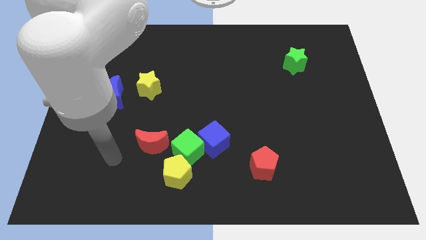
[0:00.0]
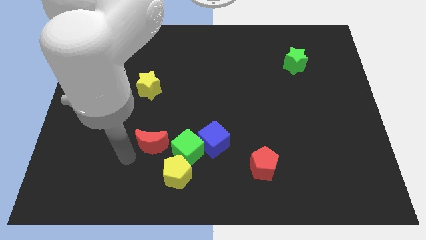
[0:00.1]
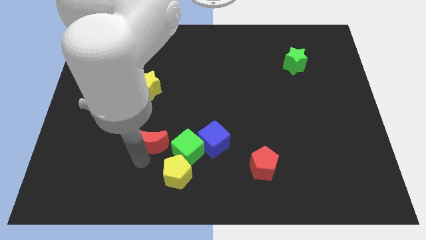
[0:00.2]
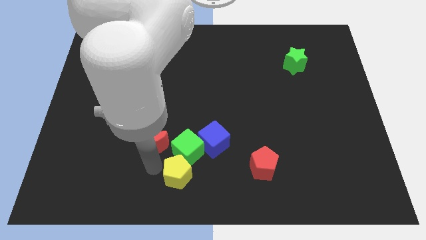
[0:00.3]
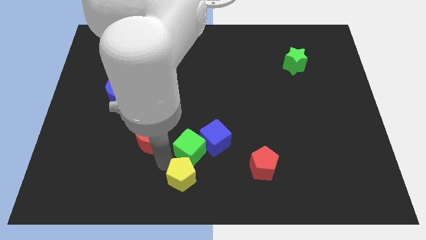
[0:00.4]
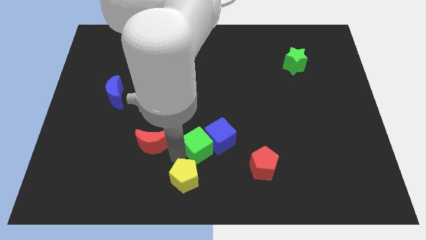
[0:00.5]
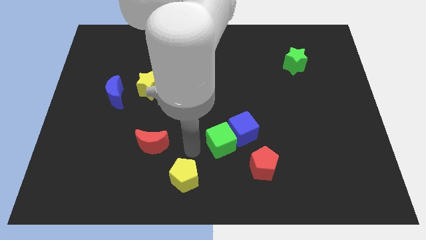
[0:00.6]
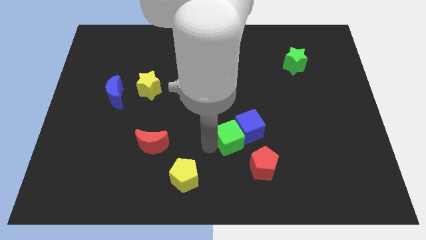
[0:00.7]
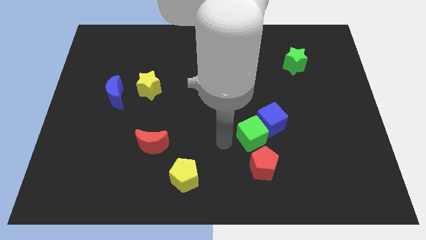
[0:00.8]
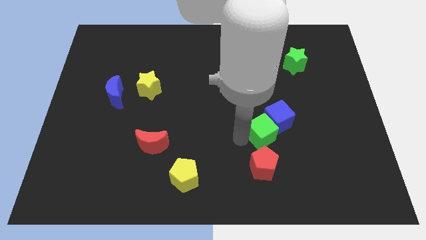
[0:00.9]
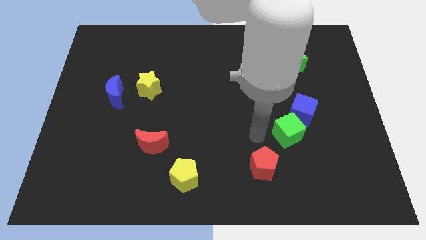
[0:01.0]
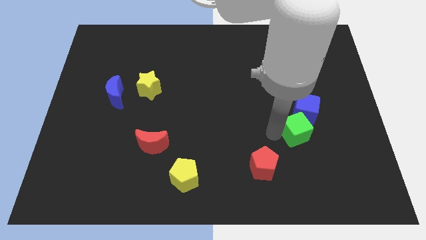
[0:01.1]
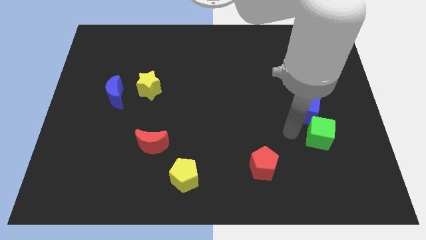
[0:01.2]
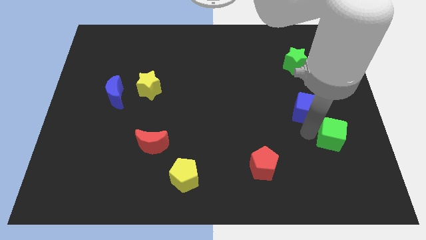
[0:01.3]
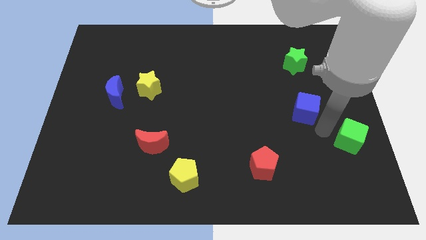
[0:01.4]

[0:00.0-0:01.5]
pull the blue cube apart from the green cube

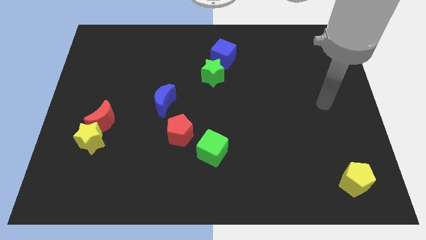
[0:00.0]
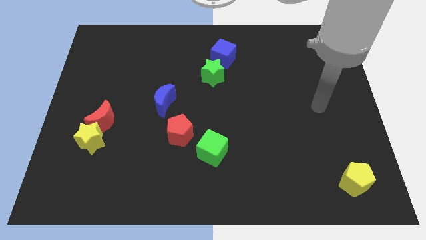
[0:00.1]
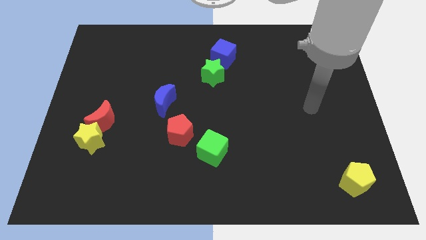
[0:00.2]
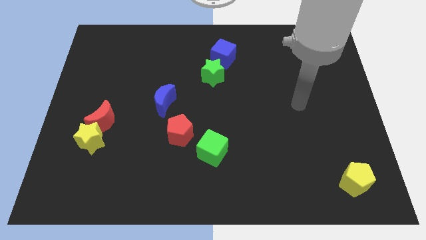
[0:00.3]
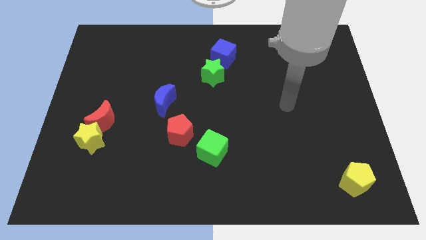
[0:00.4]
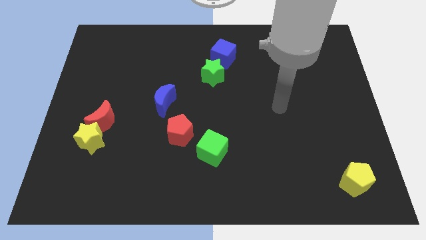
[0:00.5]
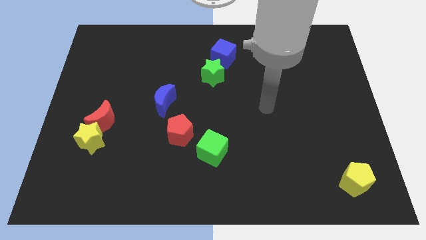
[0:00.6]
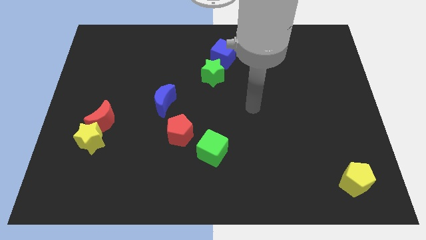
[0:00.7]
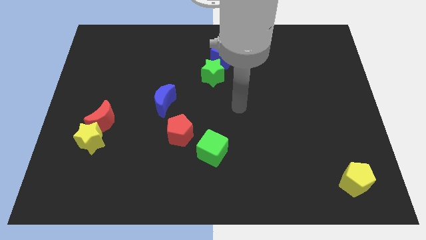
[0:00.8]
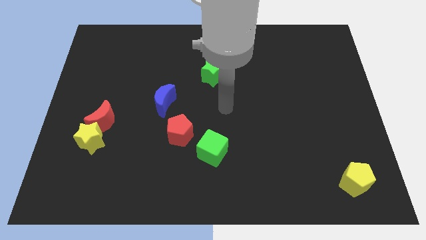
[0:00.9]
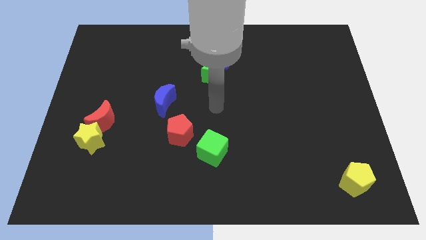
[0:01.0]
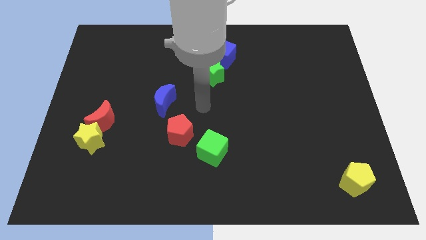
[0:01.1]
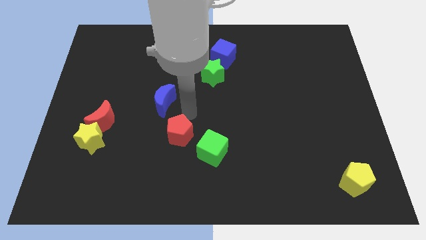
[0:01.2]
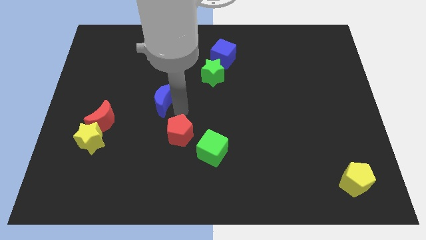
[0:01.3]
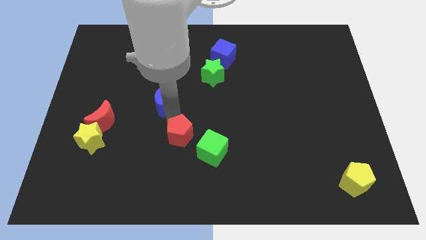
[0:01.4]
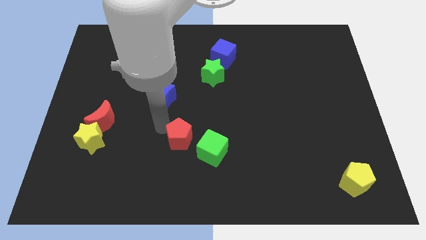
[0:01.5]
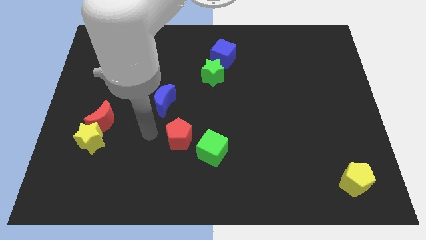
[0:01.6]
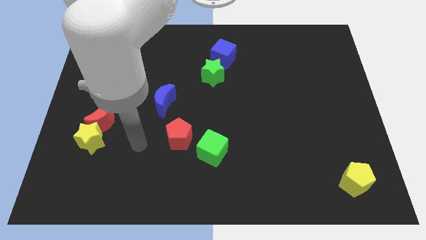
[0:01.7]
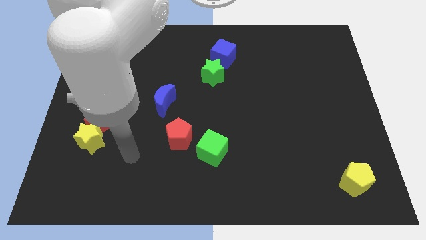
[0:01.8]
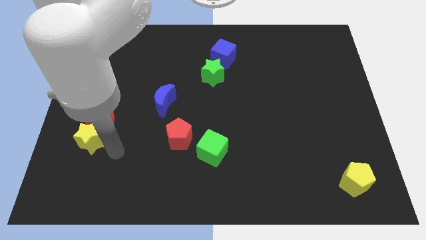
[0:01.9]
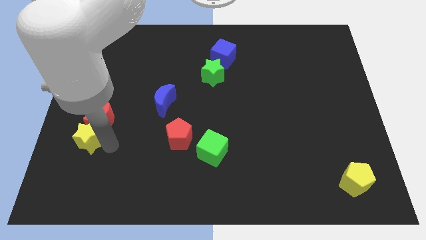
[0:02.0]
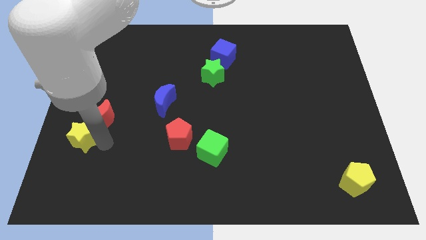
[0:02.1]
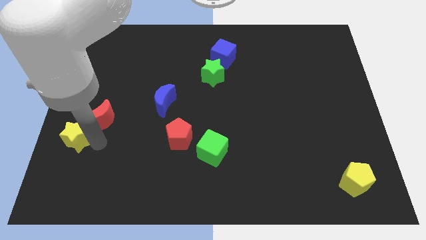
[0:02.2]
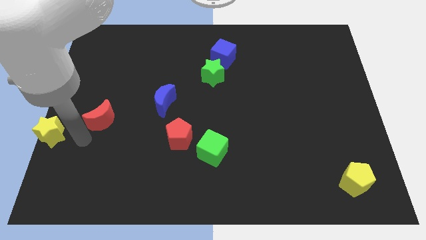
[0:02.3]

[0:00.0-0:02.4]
move the red moon away from the yellow star

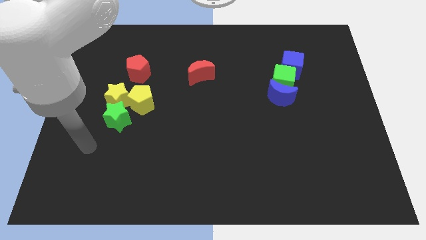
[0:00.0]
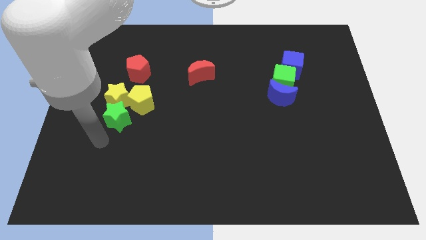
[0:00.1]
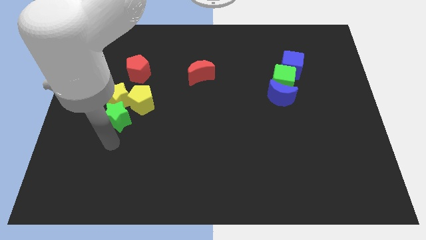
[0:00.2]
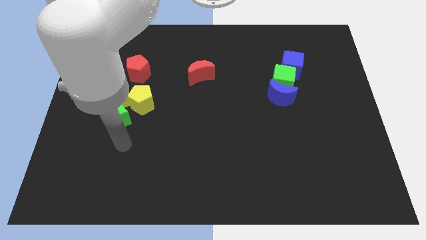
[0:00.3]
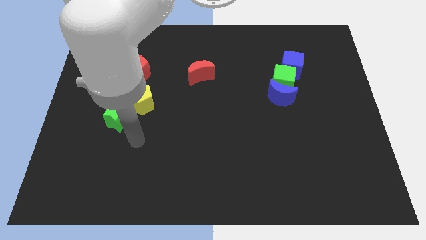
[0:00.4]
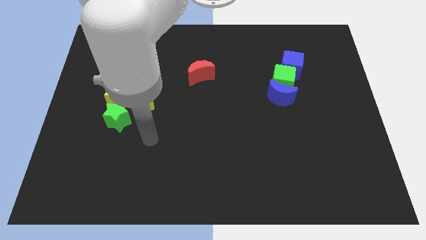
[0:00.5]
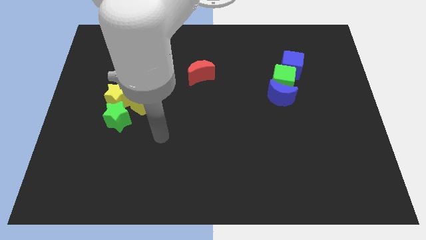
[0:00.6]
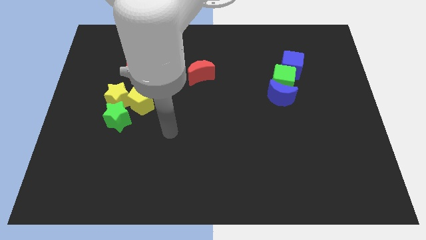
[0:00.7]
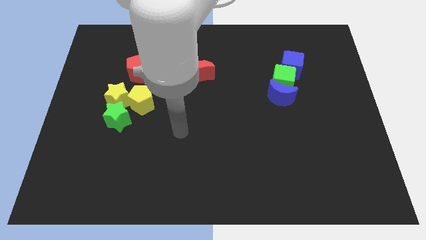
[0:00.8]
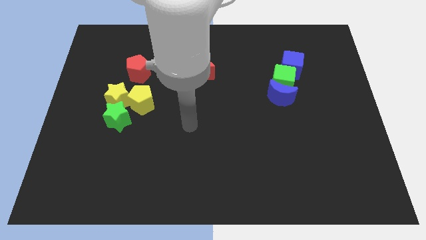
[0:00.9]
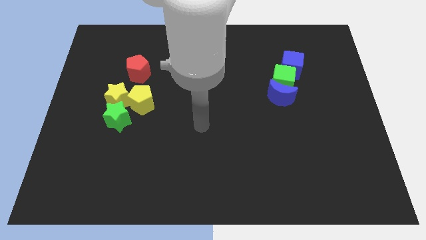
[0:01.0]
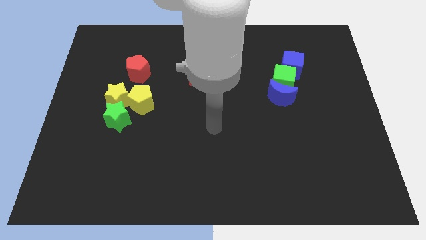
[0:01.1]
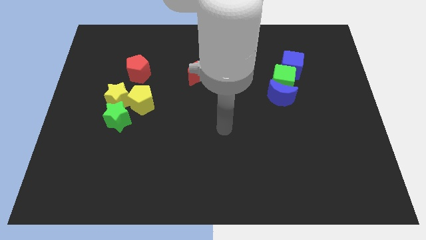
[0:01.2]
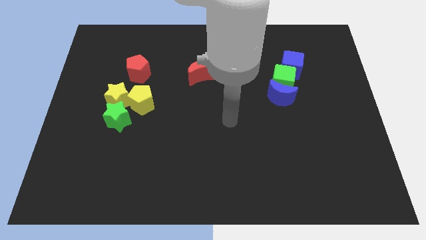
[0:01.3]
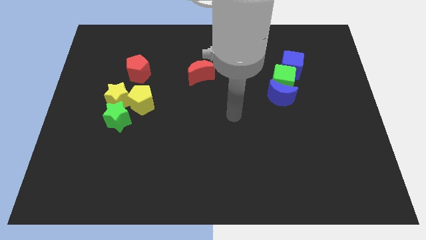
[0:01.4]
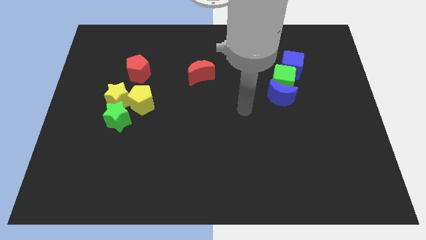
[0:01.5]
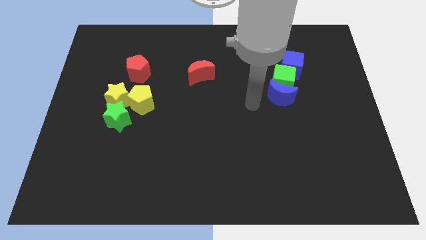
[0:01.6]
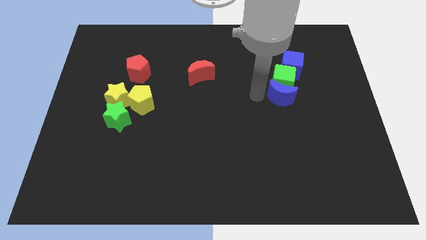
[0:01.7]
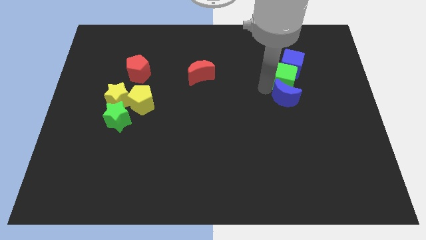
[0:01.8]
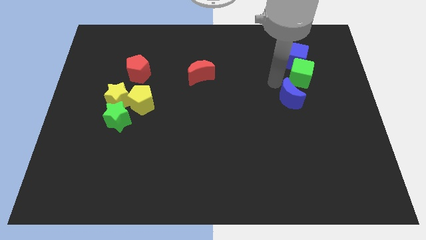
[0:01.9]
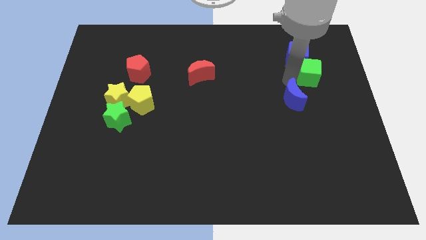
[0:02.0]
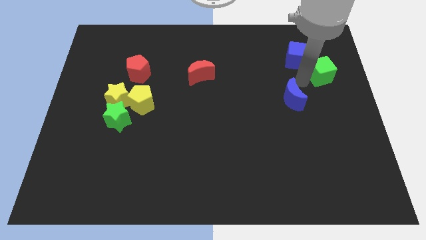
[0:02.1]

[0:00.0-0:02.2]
pull the blue moon apart from the green cube

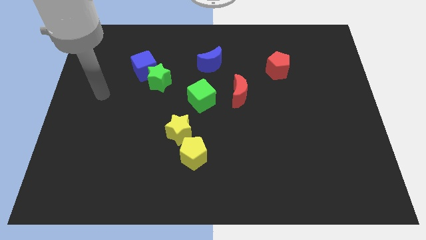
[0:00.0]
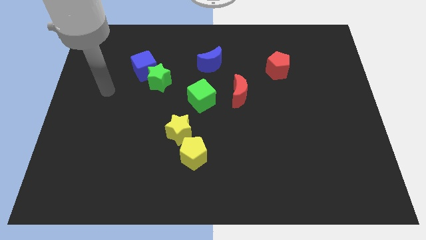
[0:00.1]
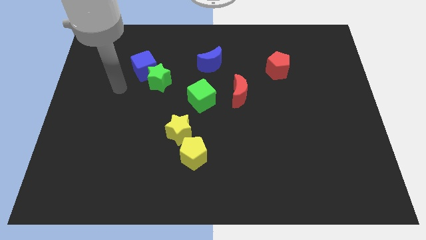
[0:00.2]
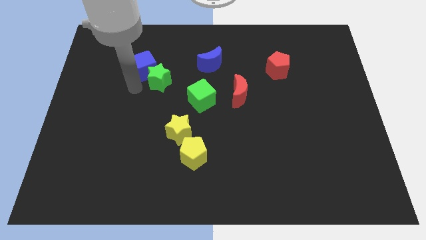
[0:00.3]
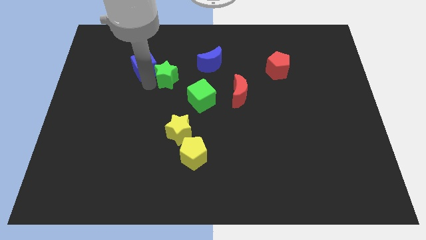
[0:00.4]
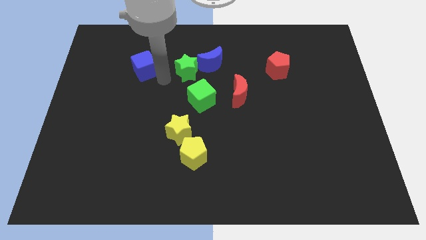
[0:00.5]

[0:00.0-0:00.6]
separate the blue cube from the green star

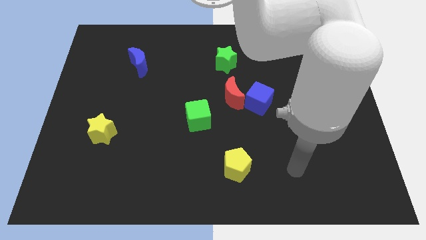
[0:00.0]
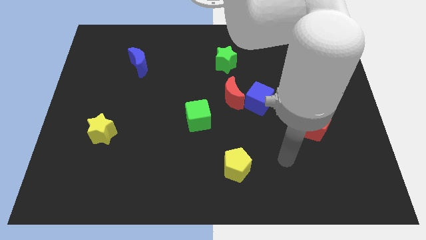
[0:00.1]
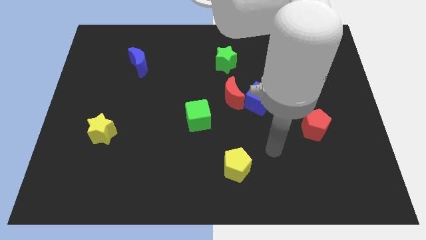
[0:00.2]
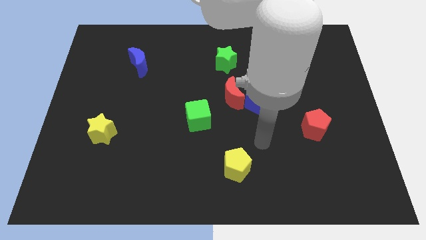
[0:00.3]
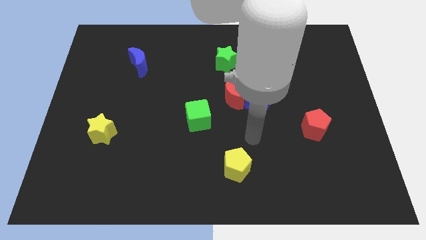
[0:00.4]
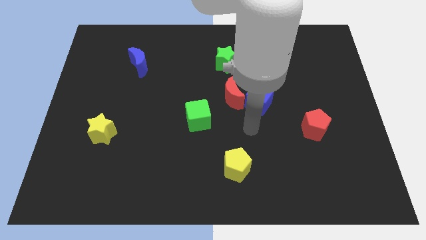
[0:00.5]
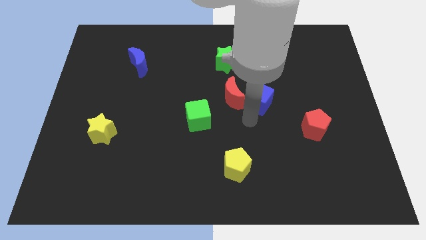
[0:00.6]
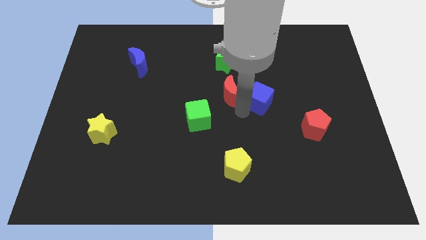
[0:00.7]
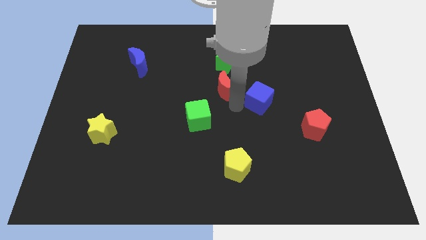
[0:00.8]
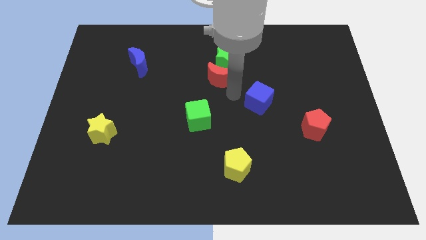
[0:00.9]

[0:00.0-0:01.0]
separate the blue cube from the red moon

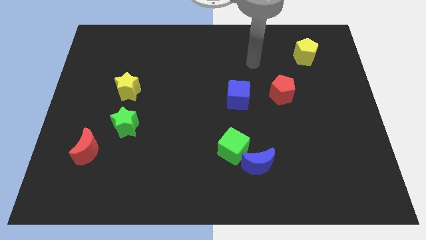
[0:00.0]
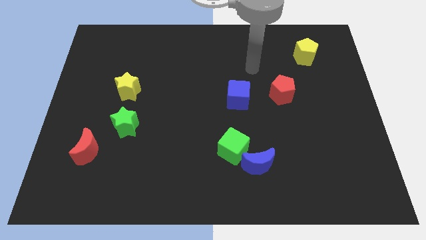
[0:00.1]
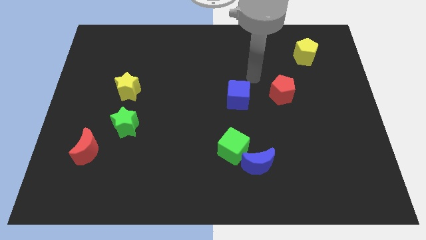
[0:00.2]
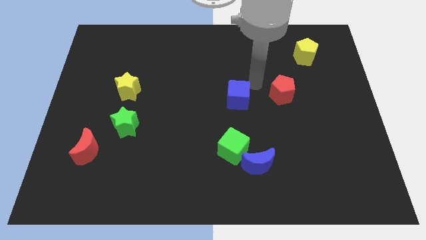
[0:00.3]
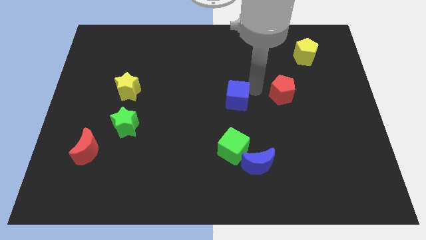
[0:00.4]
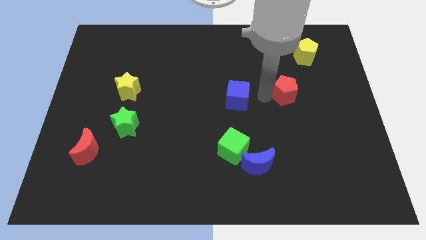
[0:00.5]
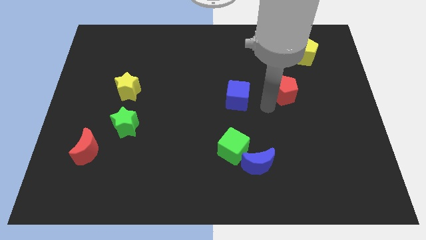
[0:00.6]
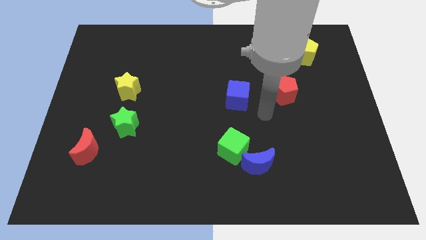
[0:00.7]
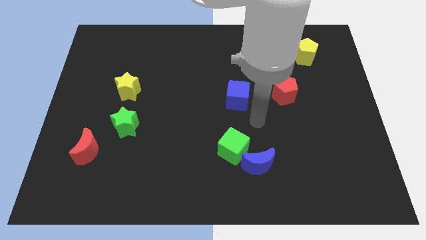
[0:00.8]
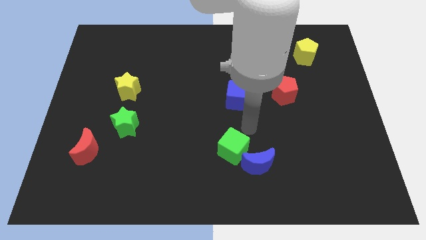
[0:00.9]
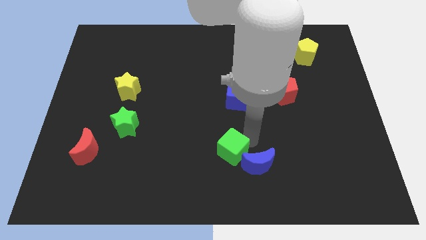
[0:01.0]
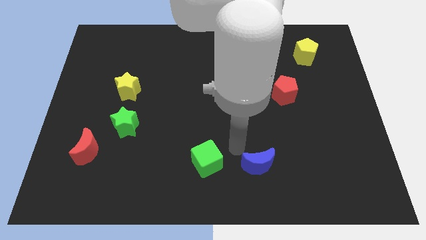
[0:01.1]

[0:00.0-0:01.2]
separate the blue moon from the green cube

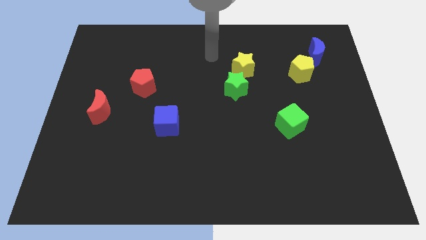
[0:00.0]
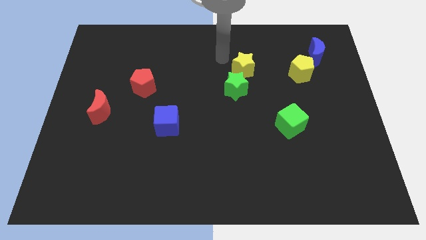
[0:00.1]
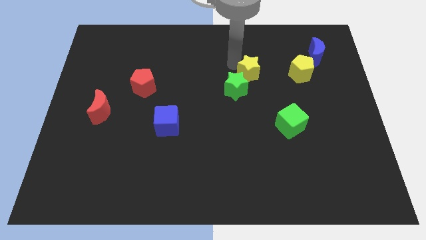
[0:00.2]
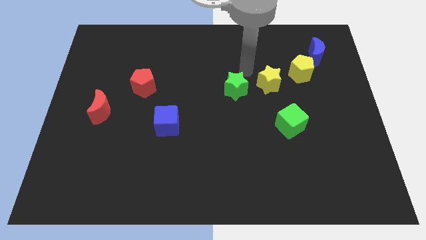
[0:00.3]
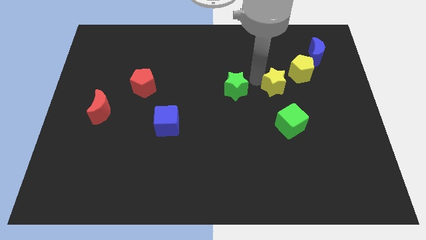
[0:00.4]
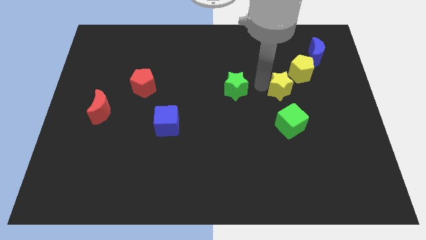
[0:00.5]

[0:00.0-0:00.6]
pull the green star apart from the yellow star

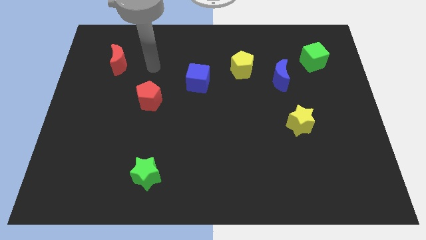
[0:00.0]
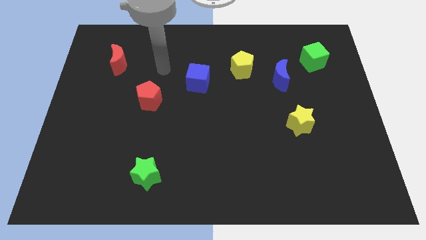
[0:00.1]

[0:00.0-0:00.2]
separate the blue moon from the yellow pentagon
